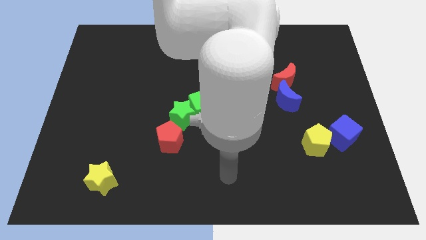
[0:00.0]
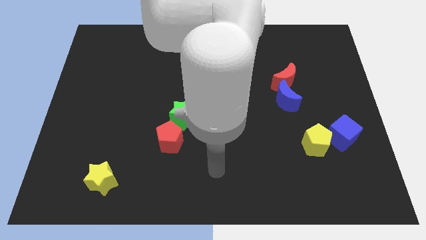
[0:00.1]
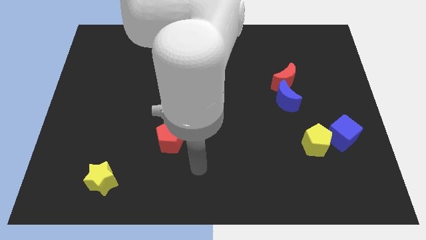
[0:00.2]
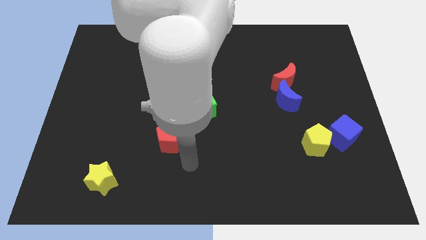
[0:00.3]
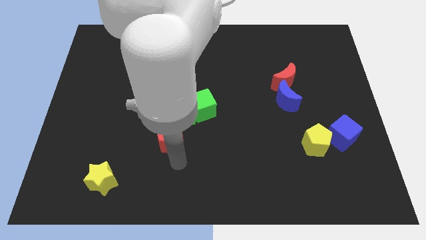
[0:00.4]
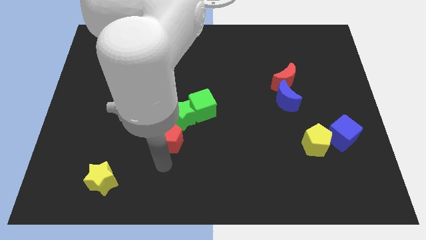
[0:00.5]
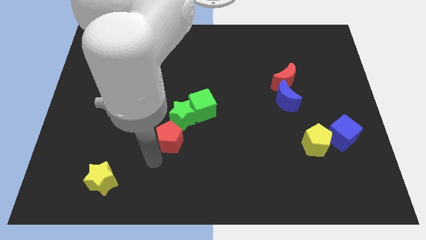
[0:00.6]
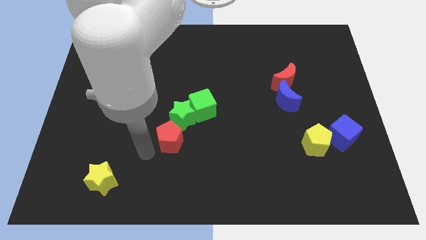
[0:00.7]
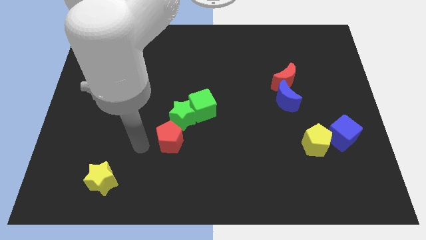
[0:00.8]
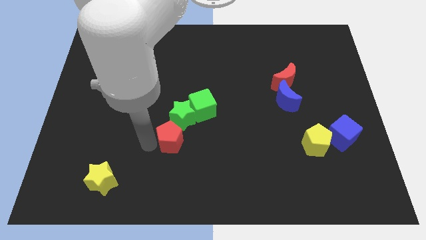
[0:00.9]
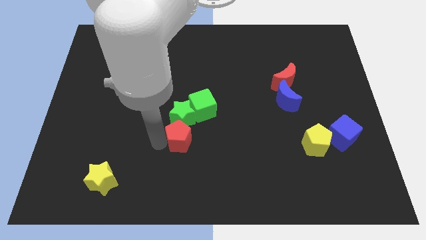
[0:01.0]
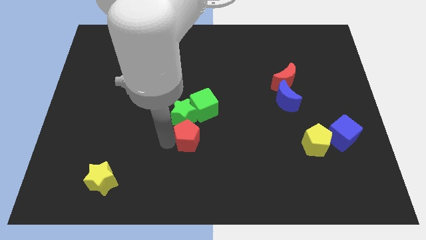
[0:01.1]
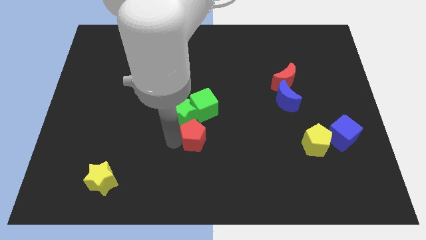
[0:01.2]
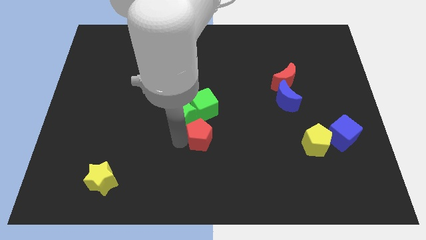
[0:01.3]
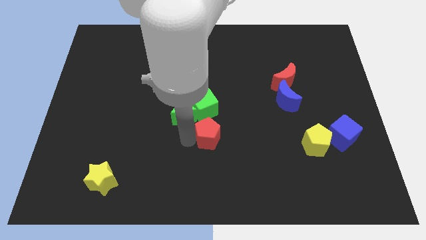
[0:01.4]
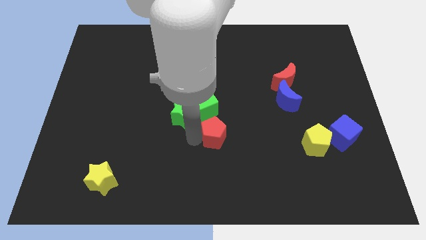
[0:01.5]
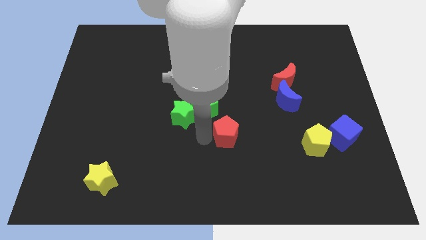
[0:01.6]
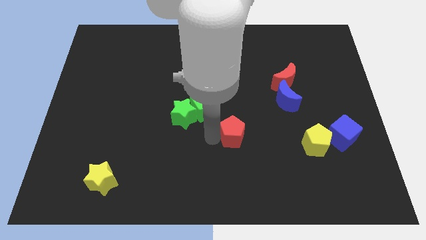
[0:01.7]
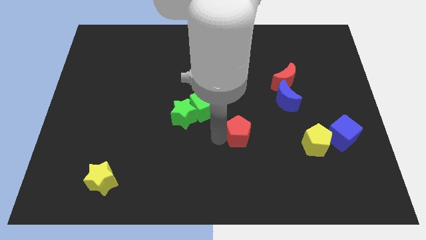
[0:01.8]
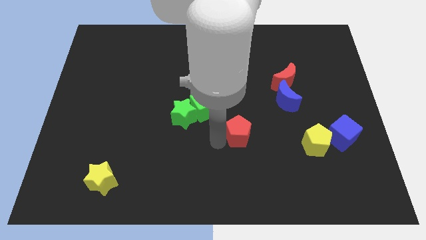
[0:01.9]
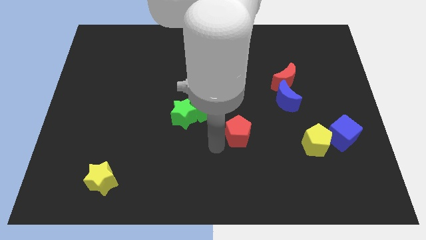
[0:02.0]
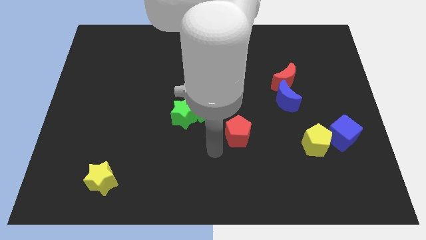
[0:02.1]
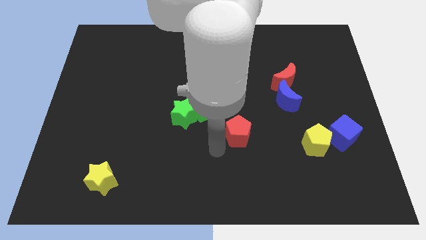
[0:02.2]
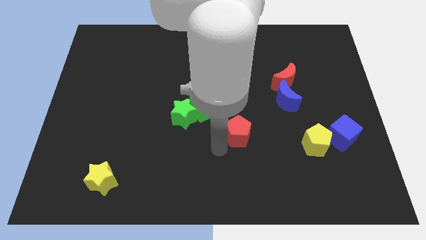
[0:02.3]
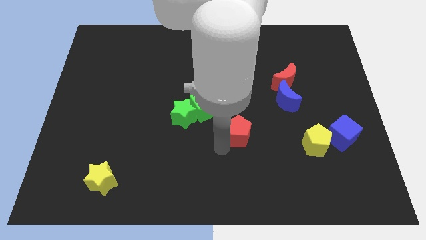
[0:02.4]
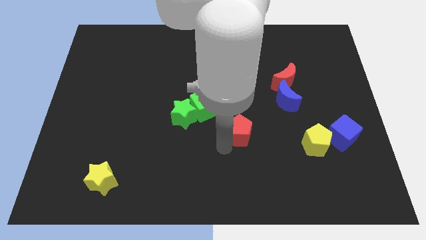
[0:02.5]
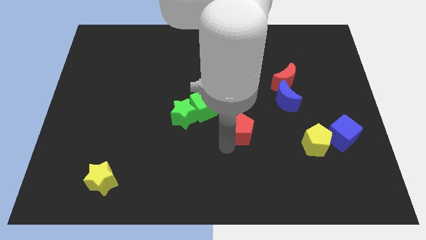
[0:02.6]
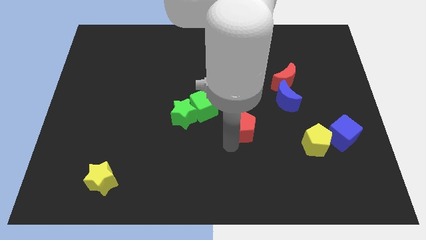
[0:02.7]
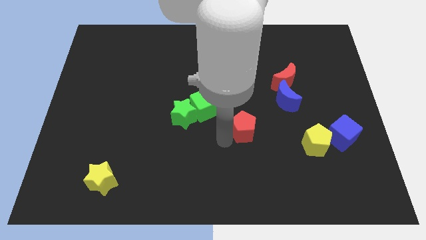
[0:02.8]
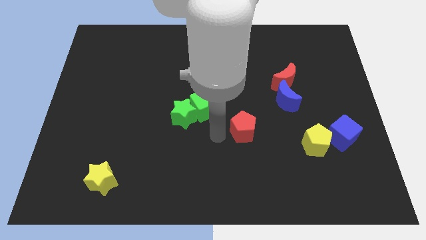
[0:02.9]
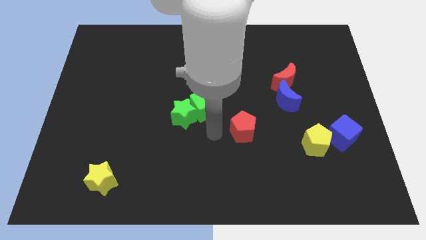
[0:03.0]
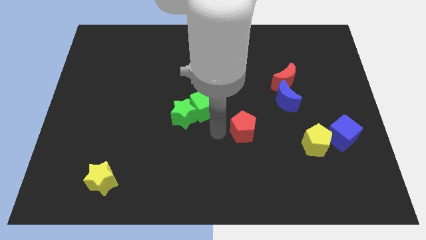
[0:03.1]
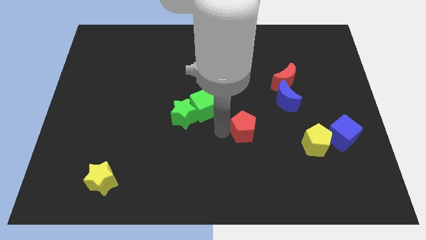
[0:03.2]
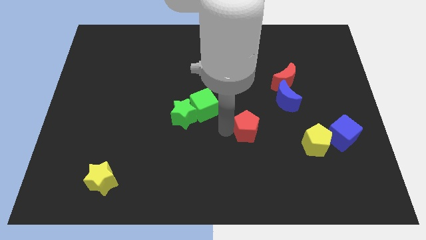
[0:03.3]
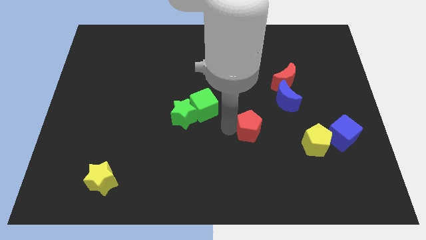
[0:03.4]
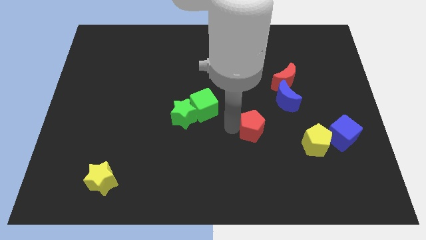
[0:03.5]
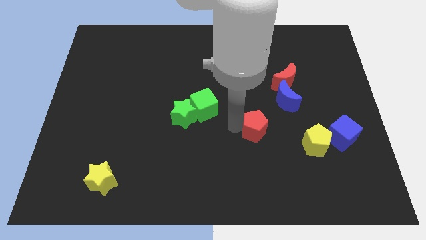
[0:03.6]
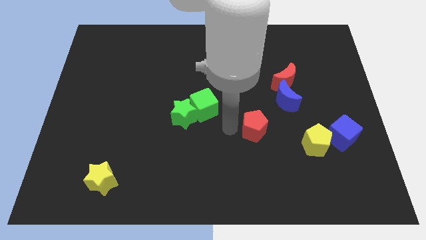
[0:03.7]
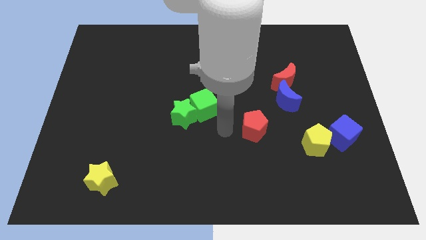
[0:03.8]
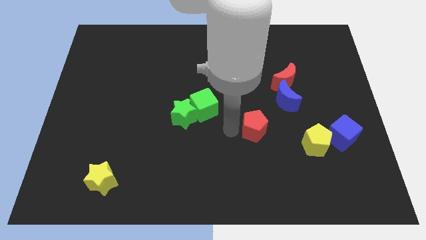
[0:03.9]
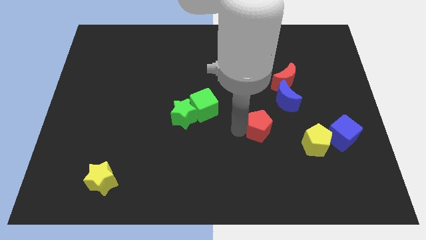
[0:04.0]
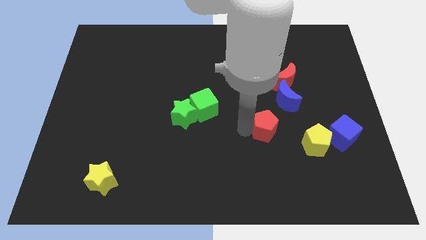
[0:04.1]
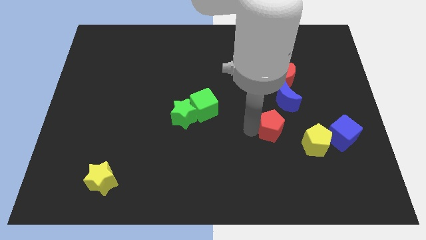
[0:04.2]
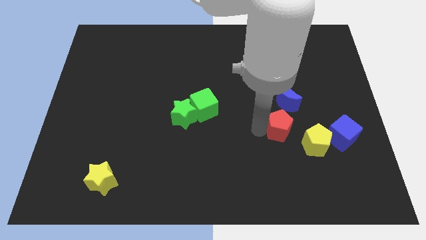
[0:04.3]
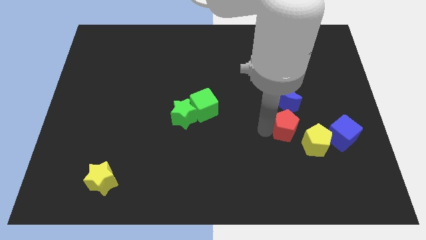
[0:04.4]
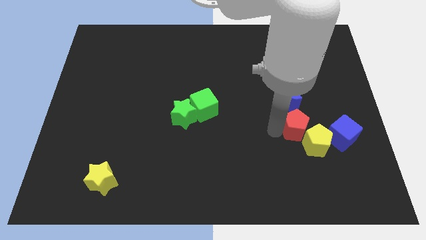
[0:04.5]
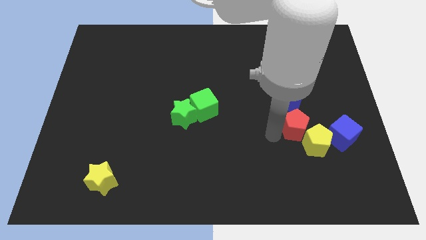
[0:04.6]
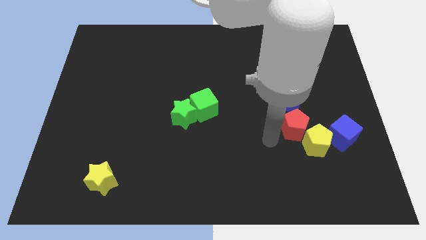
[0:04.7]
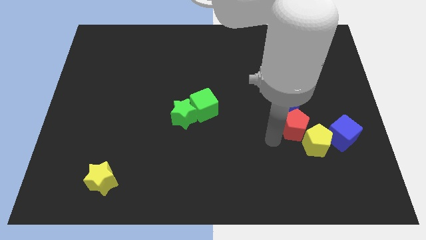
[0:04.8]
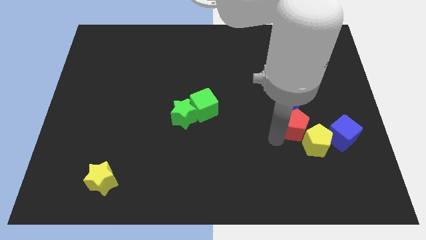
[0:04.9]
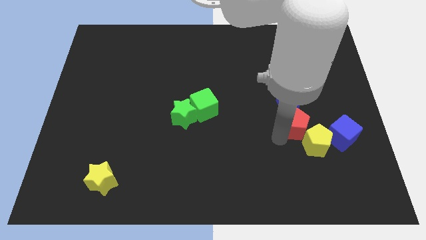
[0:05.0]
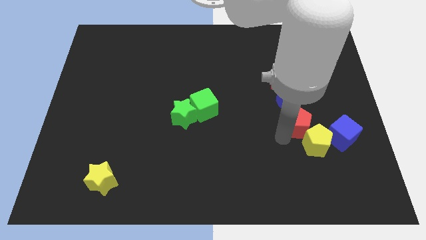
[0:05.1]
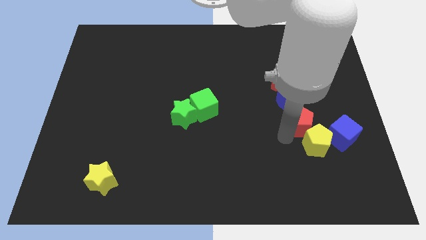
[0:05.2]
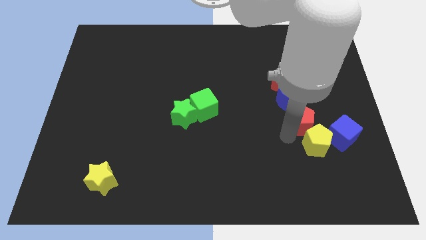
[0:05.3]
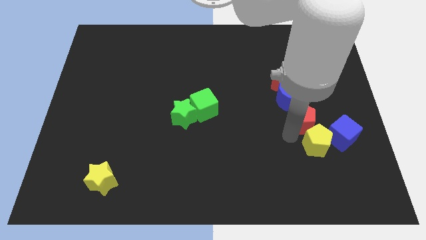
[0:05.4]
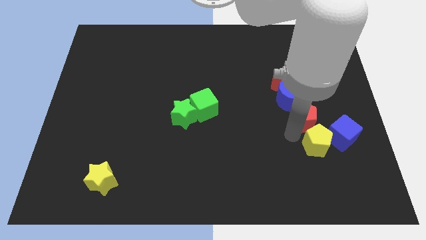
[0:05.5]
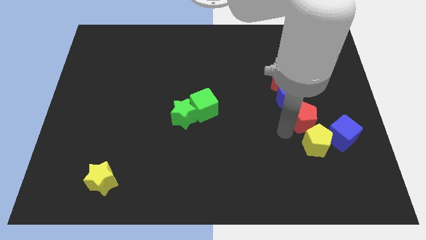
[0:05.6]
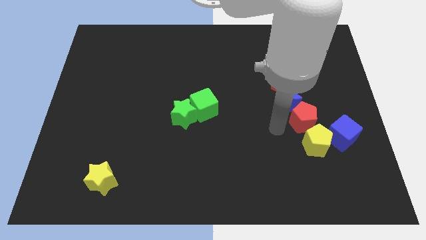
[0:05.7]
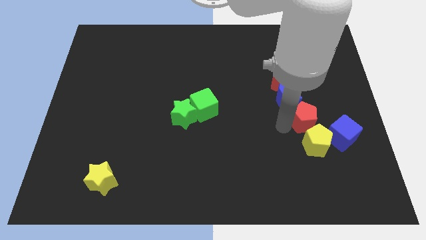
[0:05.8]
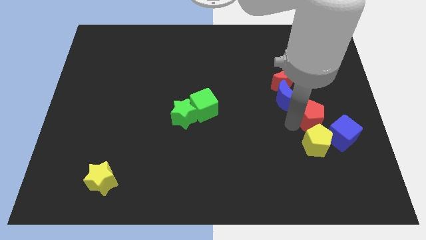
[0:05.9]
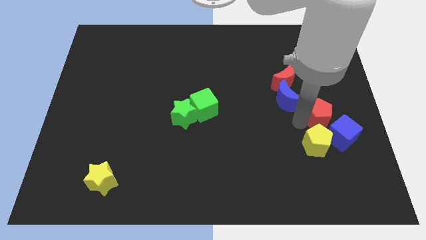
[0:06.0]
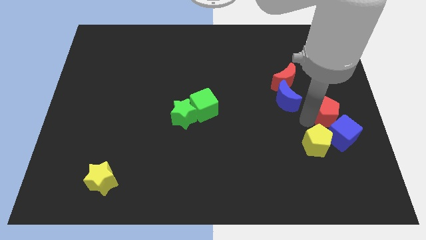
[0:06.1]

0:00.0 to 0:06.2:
slide the red pentagon to the right side of the board
